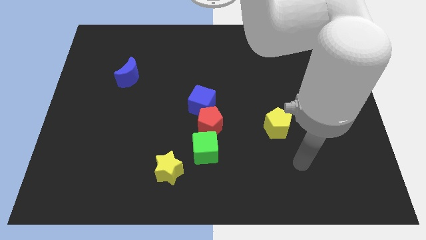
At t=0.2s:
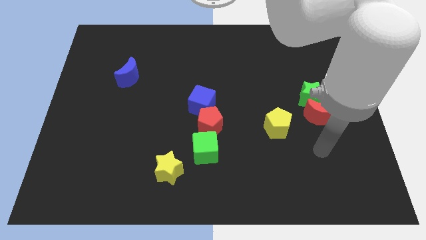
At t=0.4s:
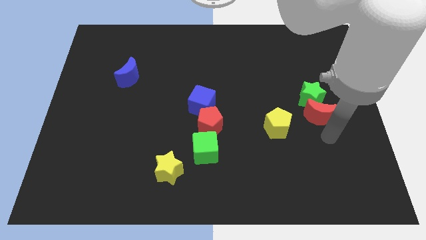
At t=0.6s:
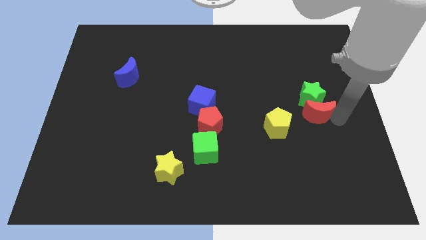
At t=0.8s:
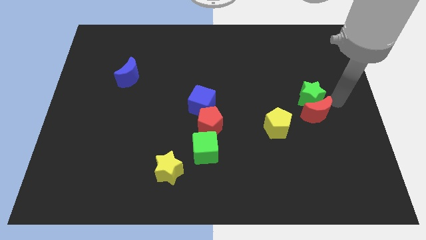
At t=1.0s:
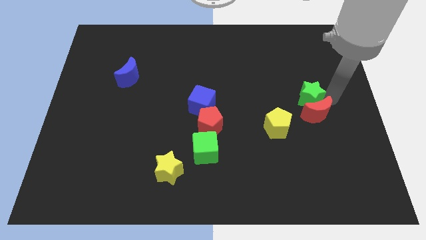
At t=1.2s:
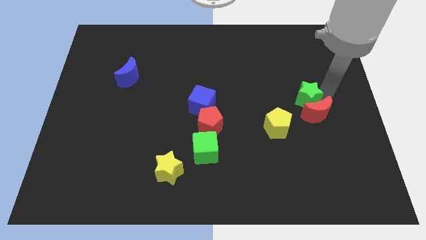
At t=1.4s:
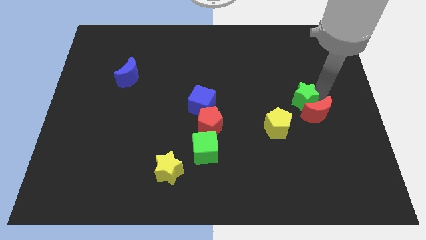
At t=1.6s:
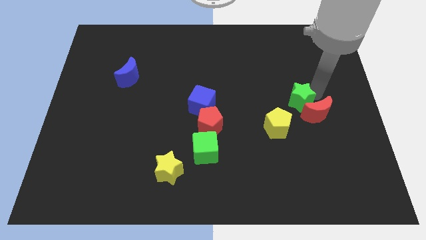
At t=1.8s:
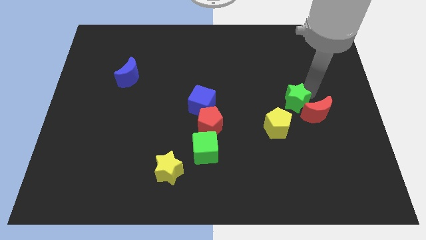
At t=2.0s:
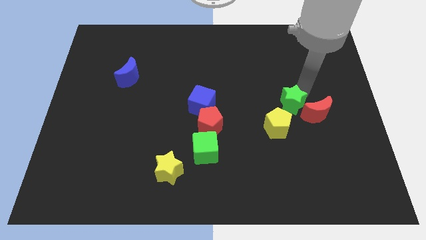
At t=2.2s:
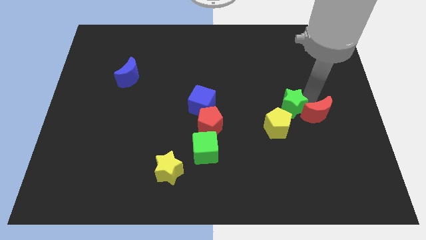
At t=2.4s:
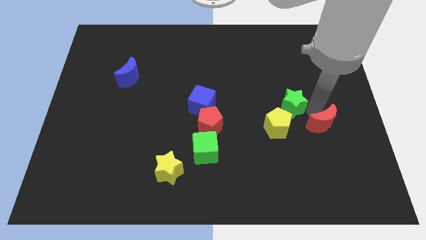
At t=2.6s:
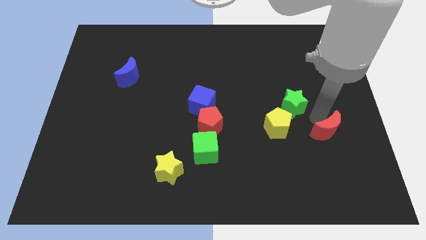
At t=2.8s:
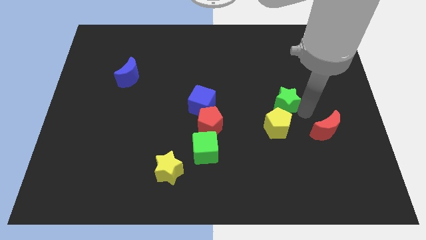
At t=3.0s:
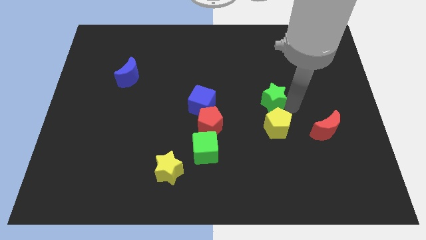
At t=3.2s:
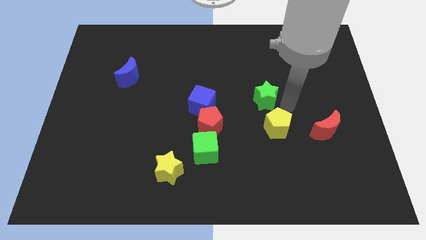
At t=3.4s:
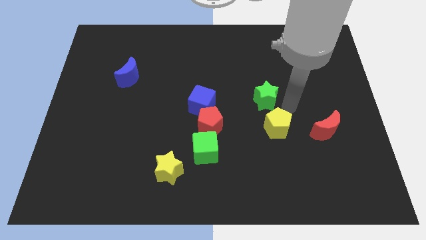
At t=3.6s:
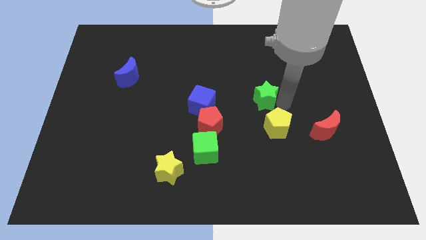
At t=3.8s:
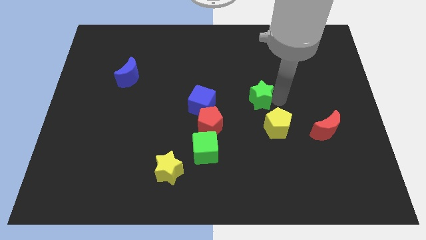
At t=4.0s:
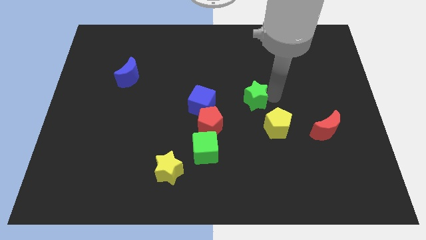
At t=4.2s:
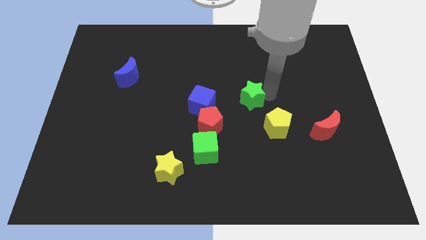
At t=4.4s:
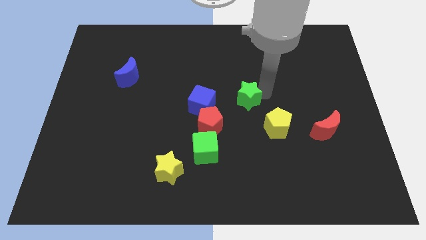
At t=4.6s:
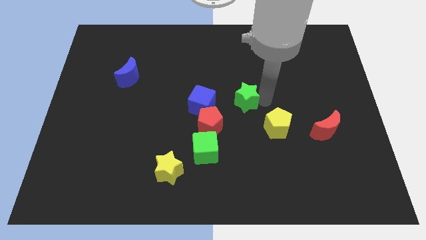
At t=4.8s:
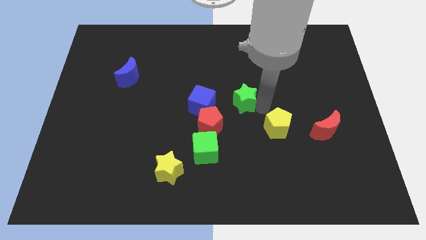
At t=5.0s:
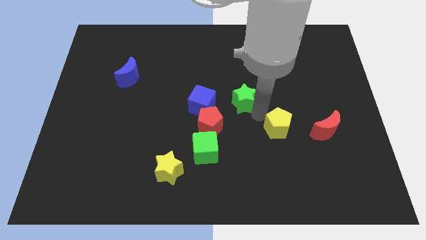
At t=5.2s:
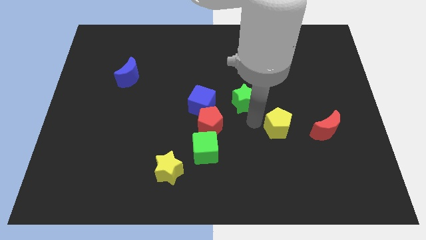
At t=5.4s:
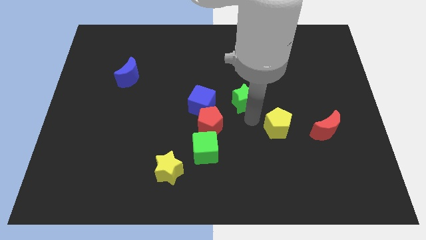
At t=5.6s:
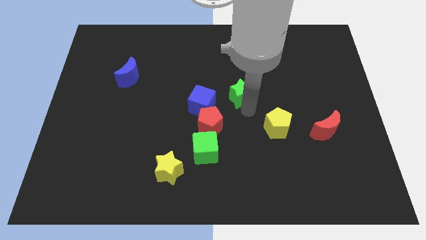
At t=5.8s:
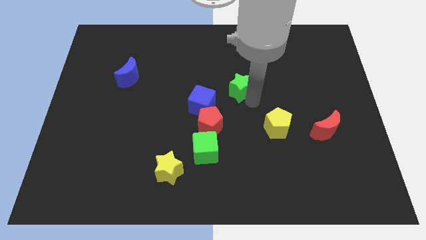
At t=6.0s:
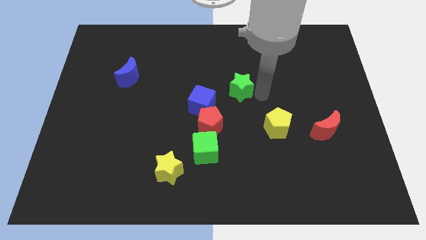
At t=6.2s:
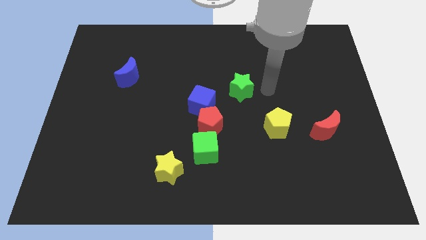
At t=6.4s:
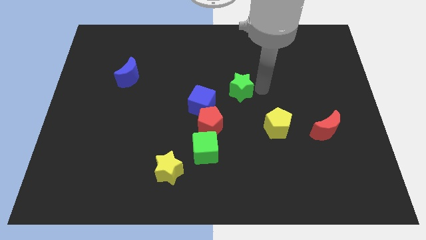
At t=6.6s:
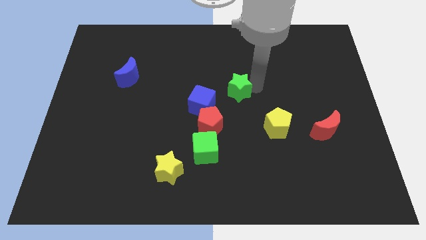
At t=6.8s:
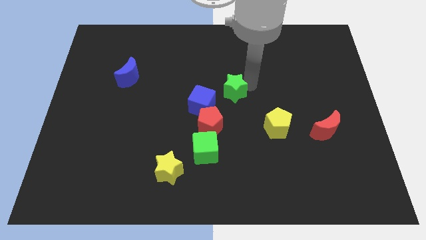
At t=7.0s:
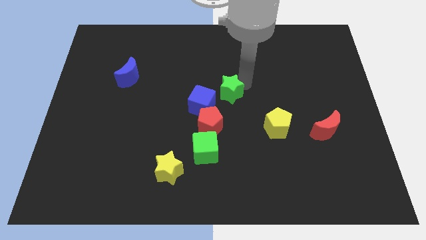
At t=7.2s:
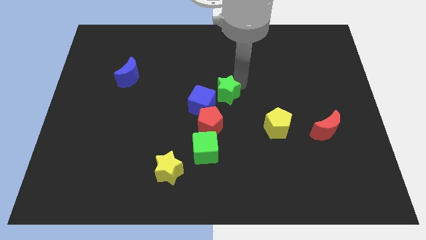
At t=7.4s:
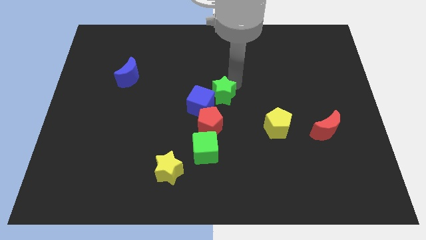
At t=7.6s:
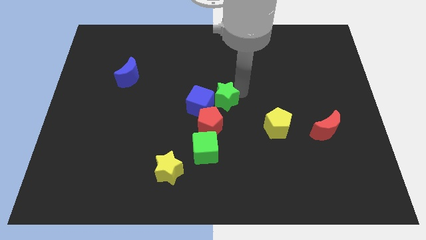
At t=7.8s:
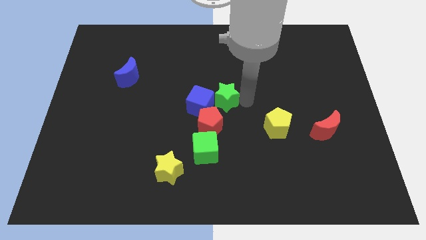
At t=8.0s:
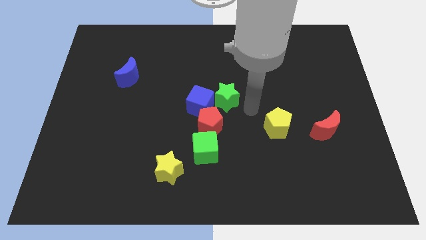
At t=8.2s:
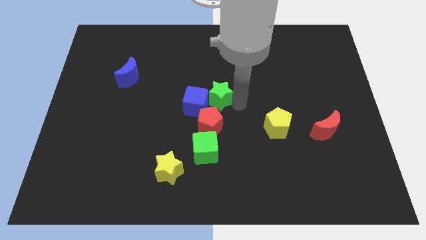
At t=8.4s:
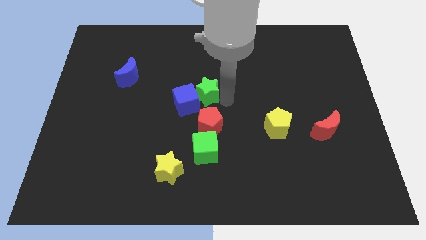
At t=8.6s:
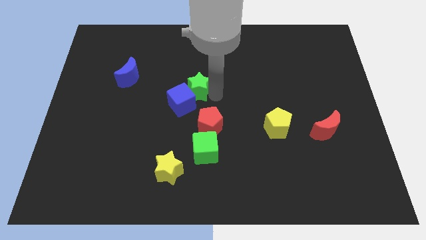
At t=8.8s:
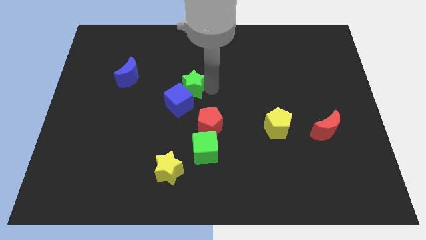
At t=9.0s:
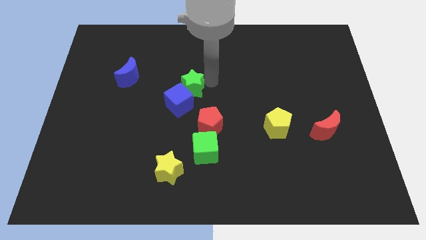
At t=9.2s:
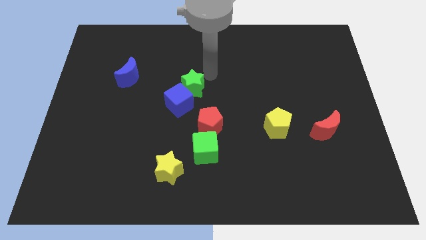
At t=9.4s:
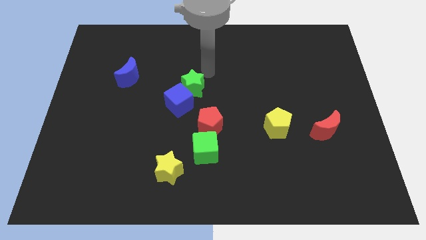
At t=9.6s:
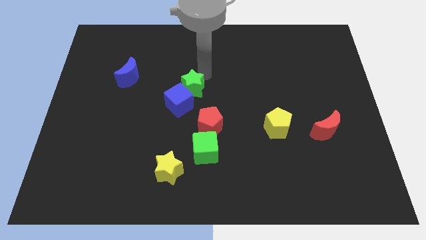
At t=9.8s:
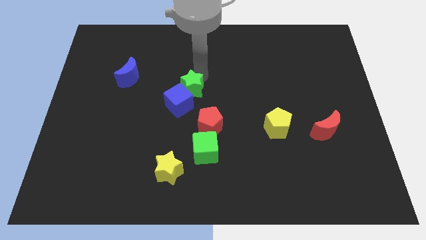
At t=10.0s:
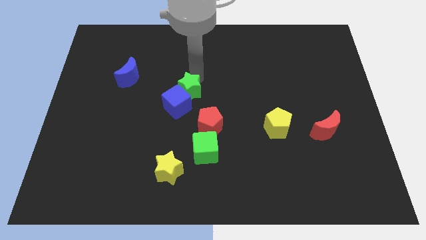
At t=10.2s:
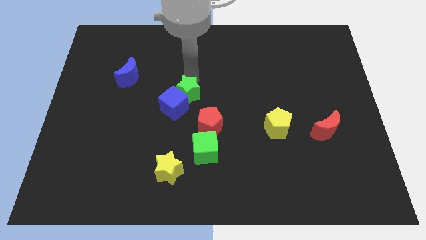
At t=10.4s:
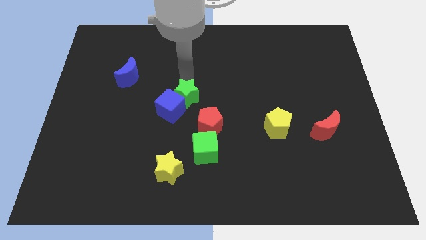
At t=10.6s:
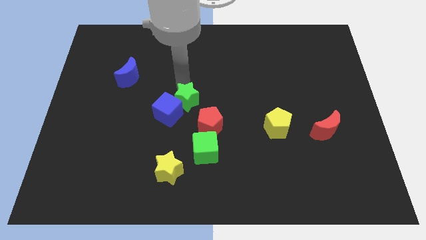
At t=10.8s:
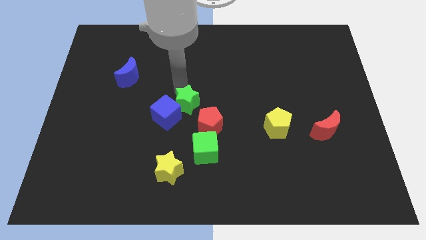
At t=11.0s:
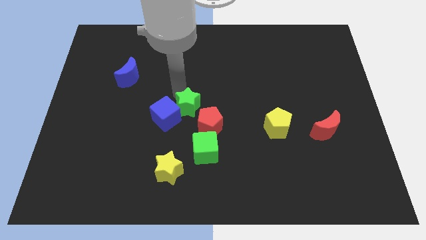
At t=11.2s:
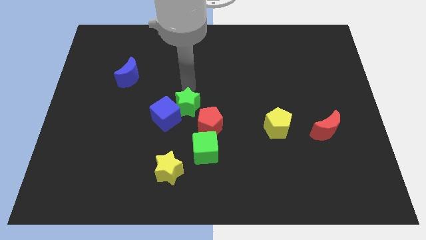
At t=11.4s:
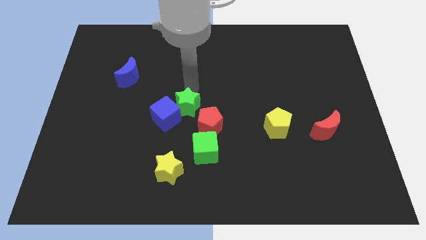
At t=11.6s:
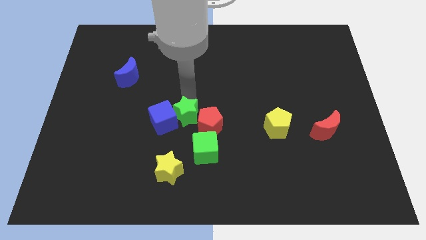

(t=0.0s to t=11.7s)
put the green star diagonally up and to the left of the green cube

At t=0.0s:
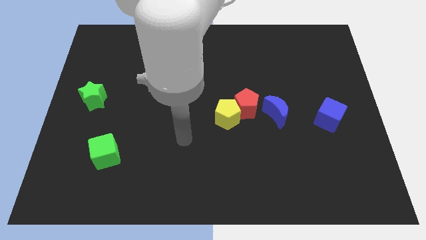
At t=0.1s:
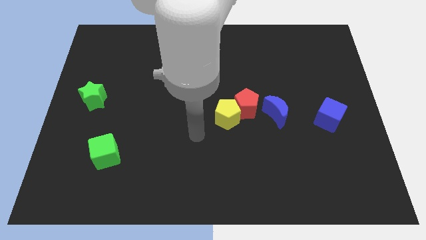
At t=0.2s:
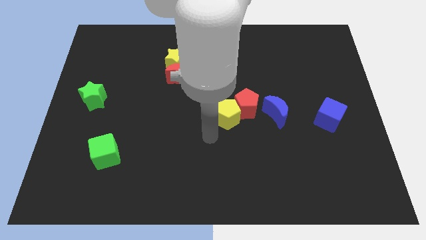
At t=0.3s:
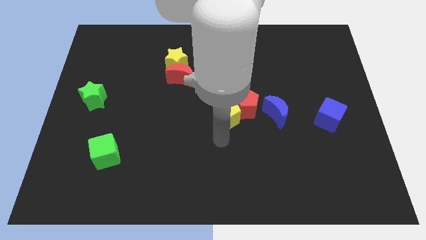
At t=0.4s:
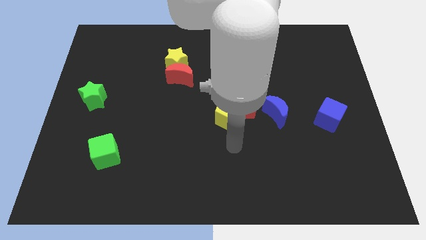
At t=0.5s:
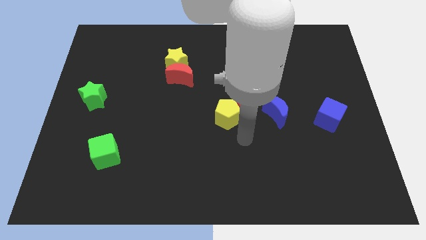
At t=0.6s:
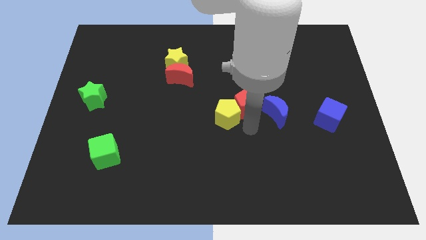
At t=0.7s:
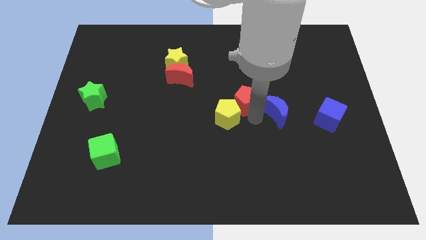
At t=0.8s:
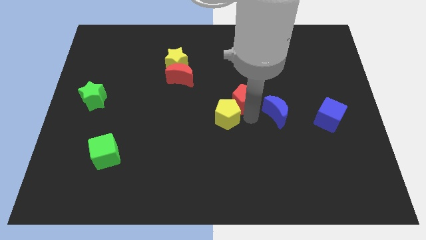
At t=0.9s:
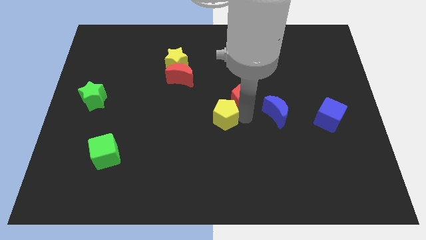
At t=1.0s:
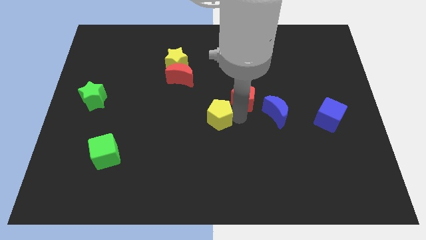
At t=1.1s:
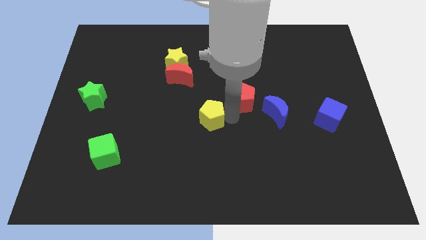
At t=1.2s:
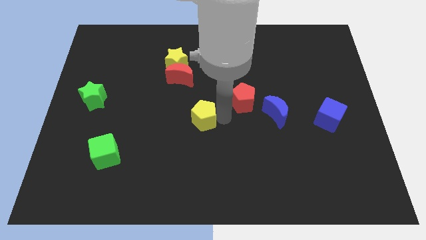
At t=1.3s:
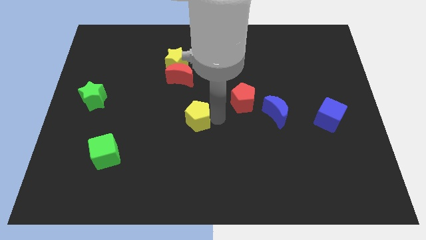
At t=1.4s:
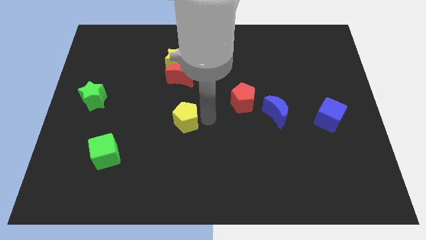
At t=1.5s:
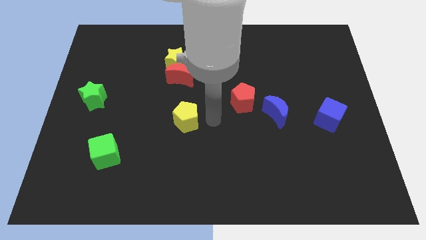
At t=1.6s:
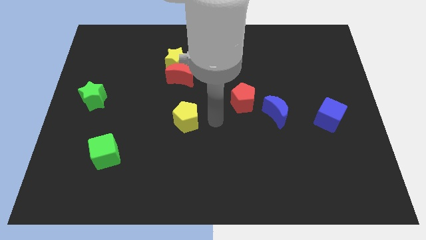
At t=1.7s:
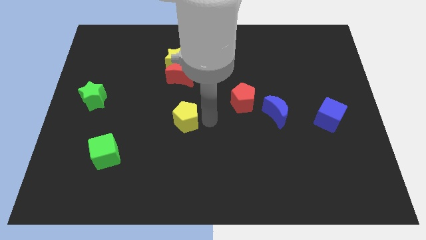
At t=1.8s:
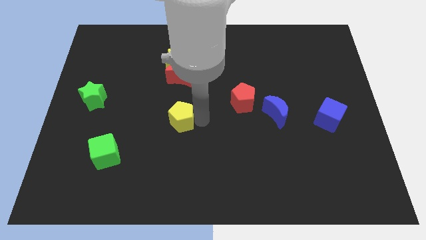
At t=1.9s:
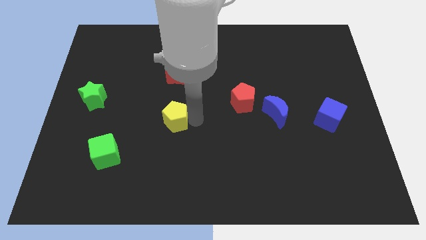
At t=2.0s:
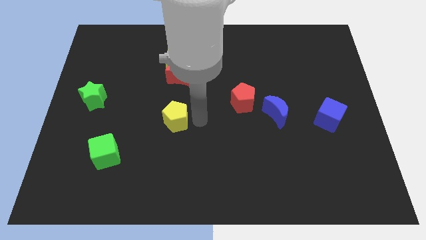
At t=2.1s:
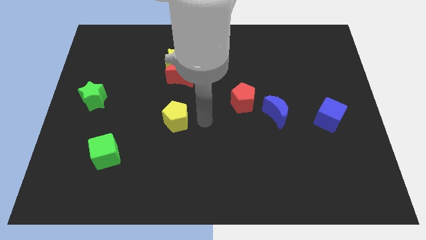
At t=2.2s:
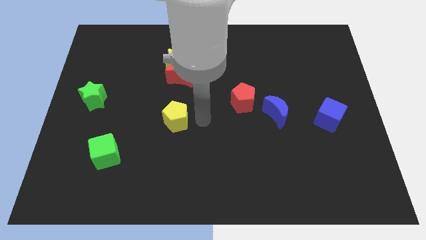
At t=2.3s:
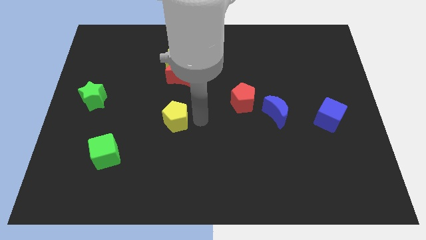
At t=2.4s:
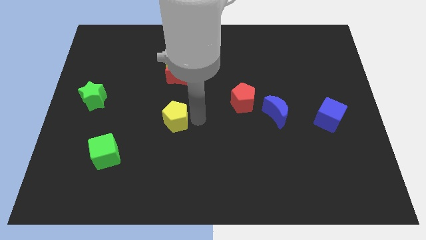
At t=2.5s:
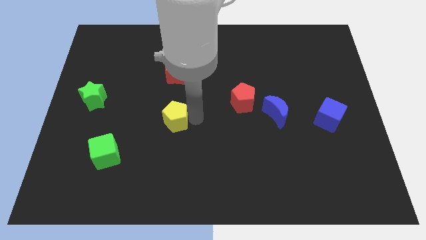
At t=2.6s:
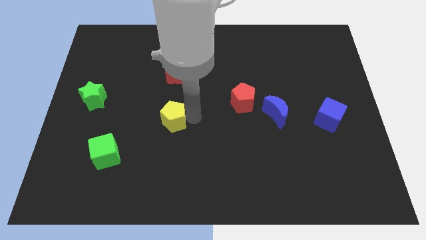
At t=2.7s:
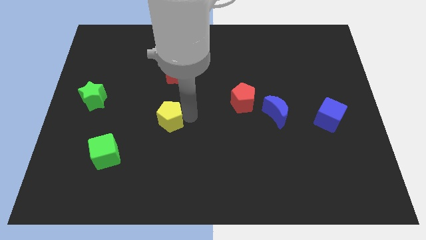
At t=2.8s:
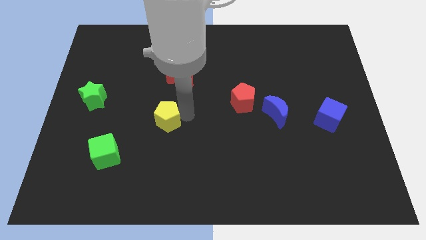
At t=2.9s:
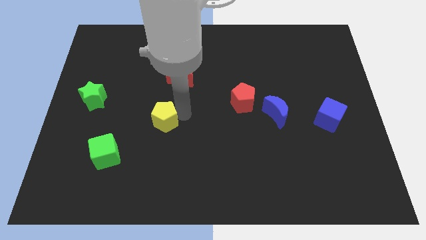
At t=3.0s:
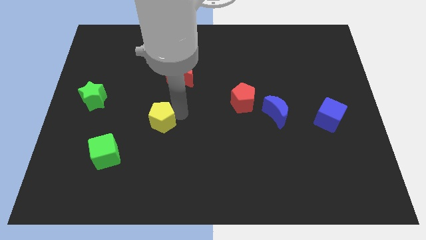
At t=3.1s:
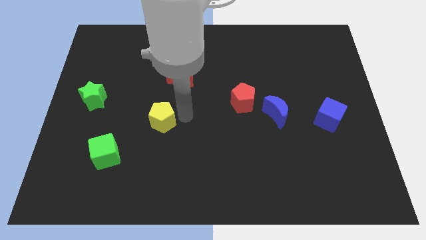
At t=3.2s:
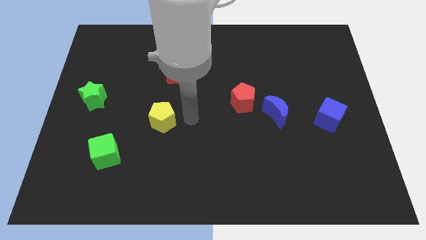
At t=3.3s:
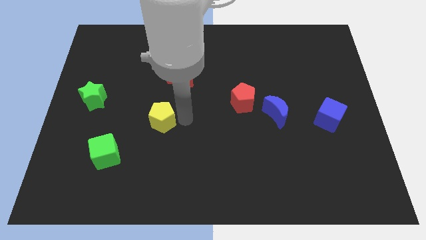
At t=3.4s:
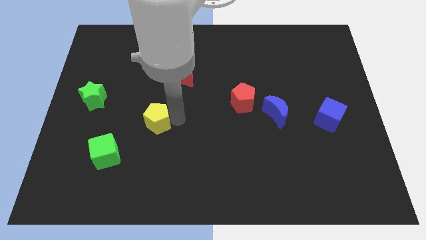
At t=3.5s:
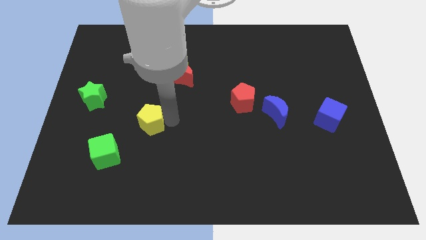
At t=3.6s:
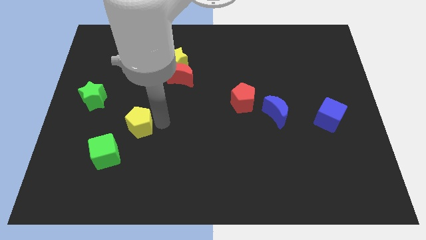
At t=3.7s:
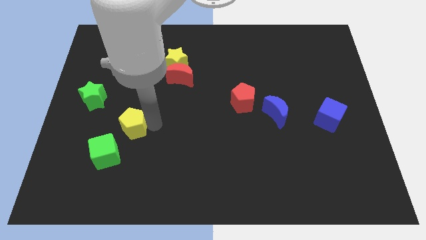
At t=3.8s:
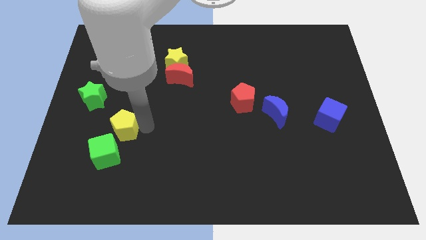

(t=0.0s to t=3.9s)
put the yellow pentagon above the green cube
